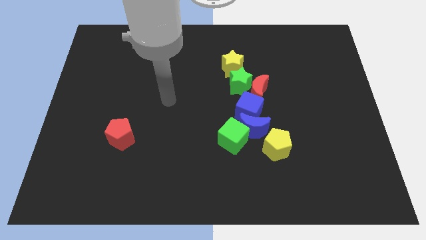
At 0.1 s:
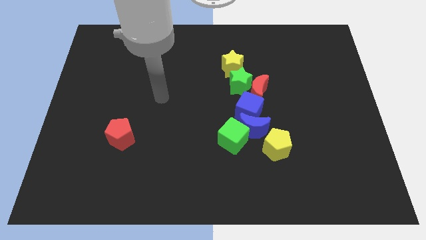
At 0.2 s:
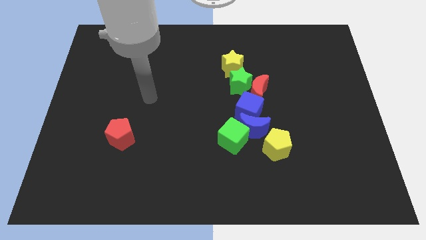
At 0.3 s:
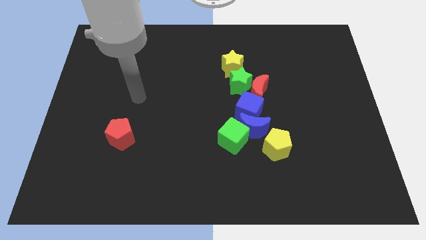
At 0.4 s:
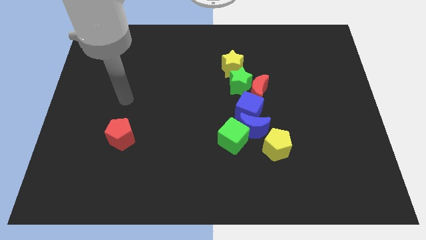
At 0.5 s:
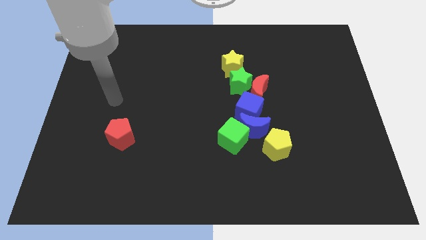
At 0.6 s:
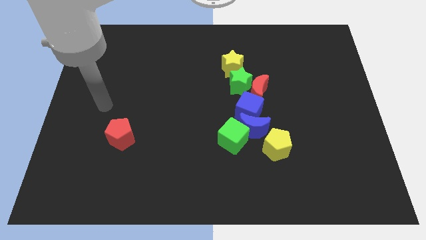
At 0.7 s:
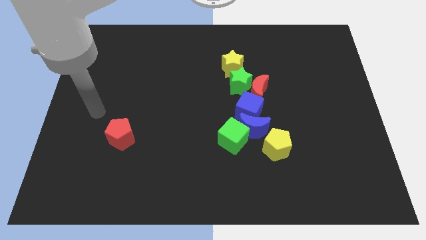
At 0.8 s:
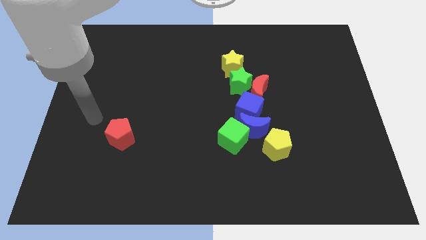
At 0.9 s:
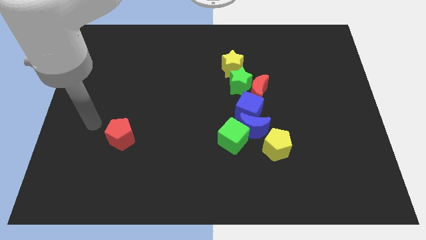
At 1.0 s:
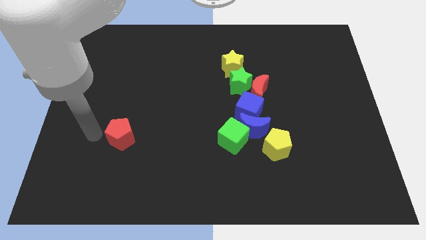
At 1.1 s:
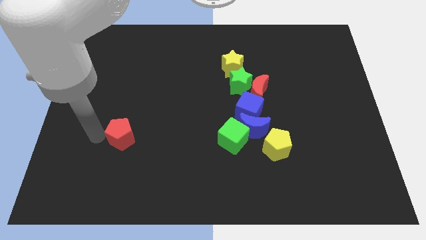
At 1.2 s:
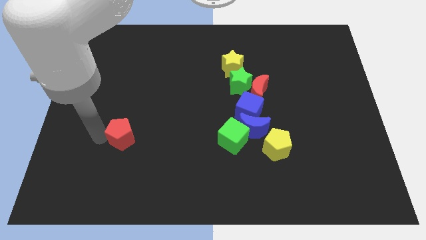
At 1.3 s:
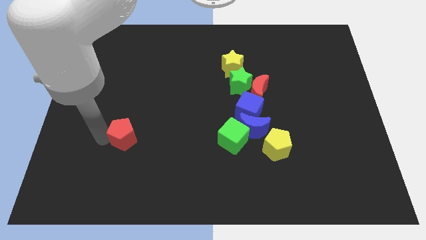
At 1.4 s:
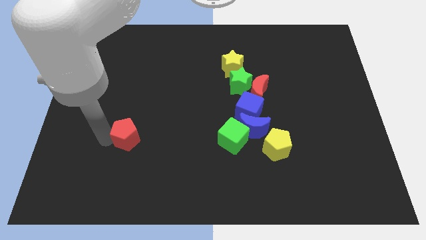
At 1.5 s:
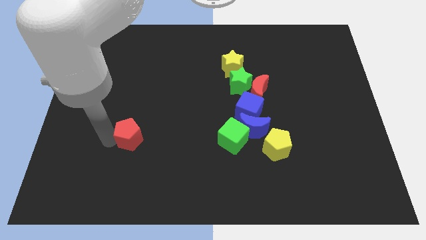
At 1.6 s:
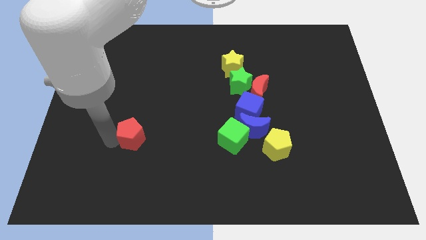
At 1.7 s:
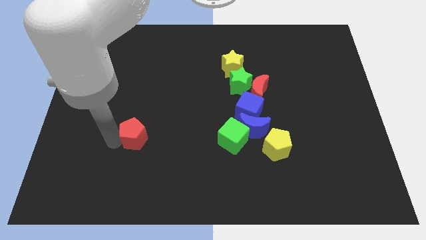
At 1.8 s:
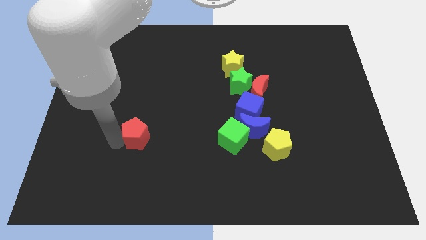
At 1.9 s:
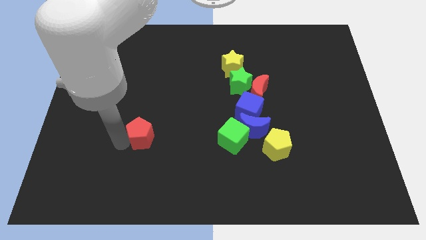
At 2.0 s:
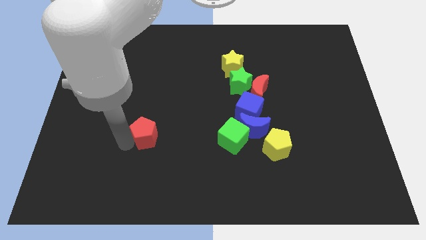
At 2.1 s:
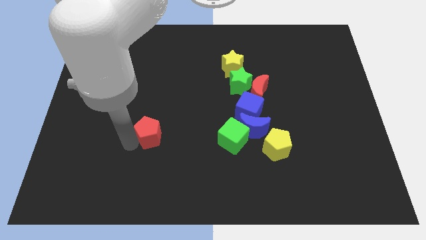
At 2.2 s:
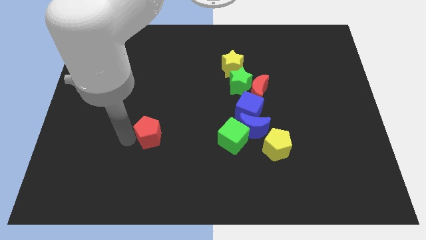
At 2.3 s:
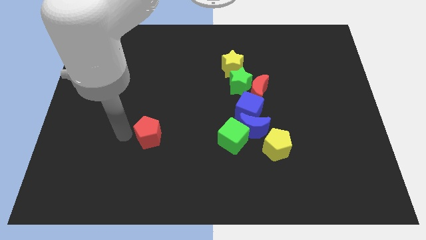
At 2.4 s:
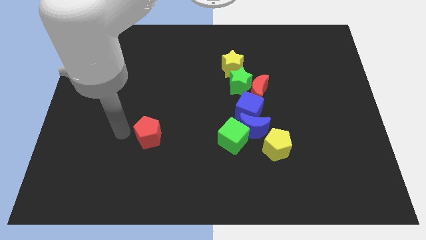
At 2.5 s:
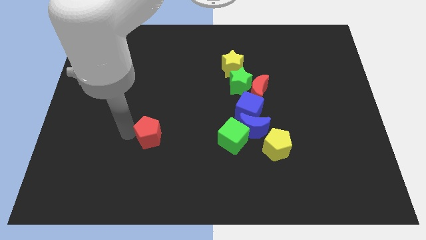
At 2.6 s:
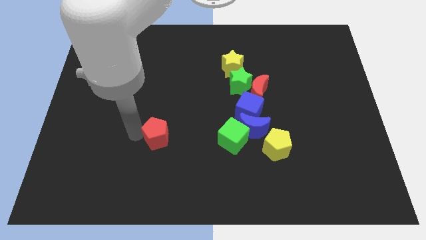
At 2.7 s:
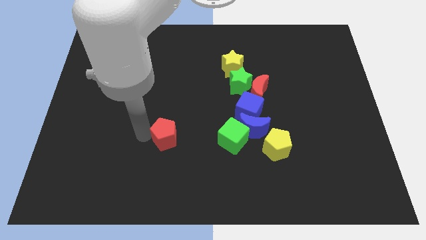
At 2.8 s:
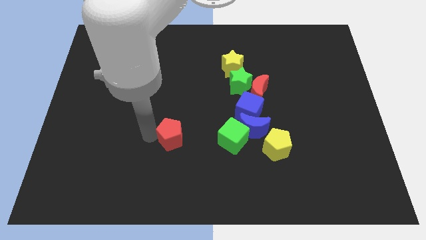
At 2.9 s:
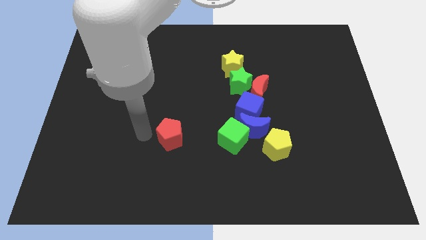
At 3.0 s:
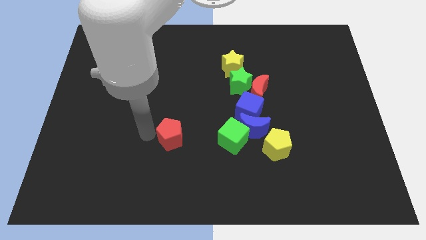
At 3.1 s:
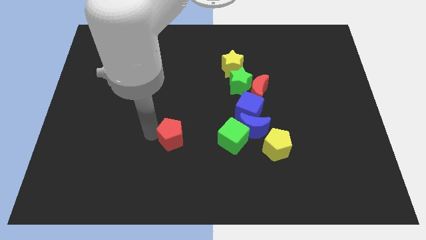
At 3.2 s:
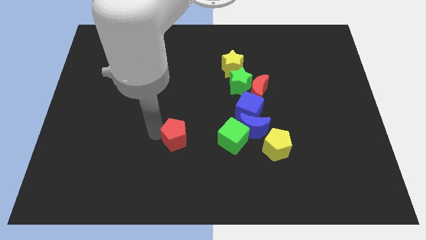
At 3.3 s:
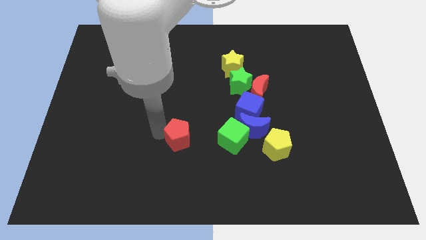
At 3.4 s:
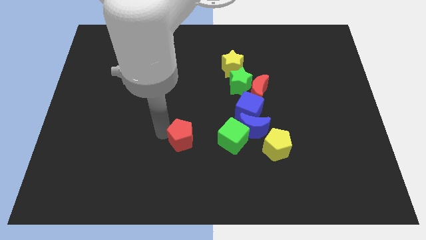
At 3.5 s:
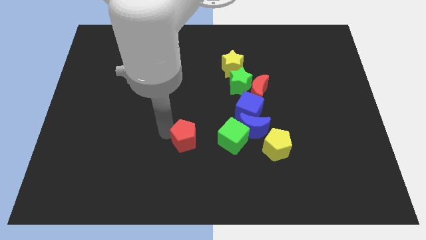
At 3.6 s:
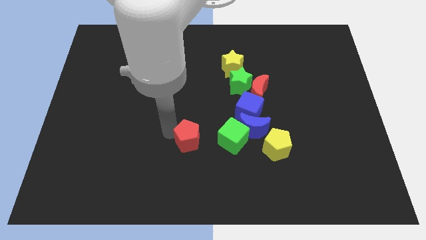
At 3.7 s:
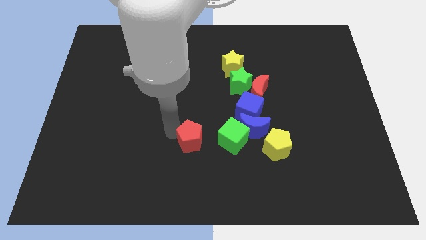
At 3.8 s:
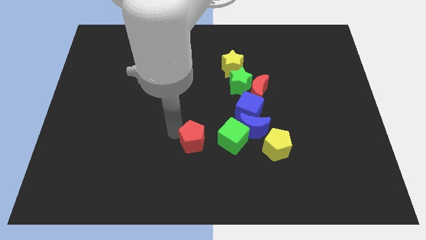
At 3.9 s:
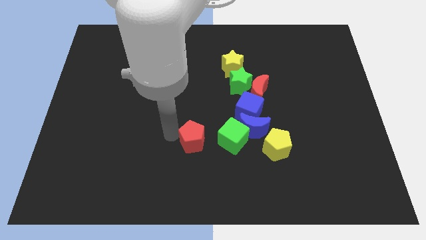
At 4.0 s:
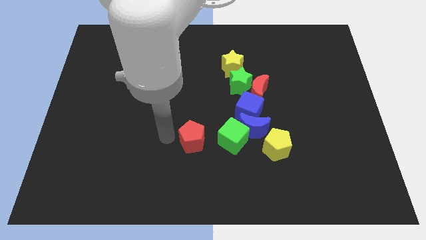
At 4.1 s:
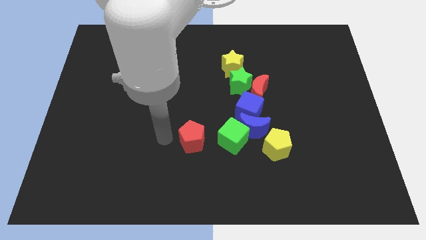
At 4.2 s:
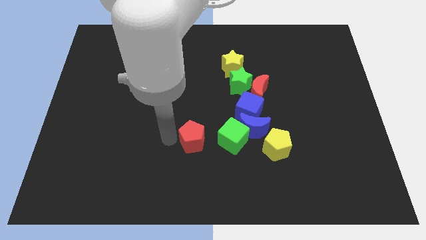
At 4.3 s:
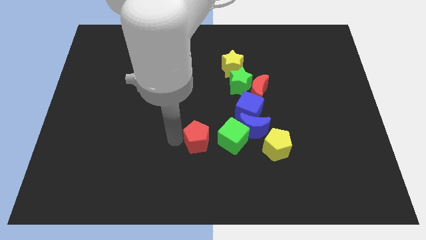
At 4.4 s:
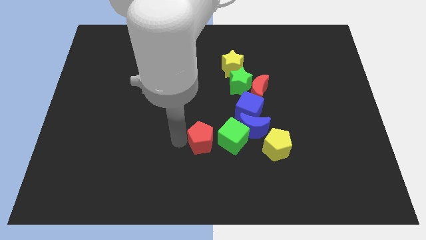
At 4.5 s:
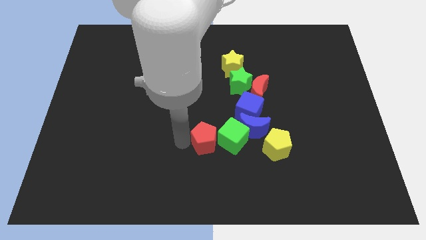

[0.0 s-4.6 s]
move the red pentagon close to the green cube

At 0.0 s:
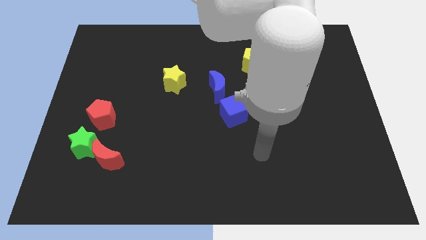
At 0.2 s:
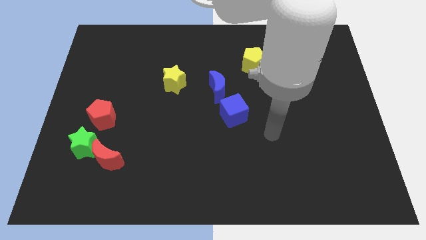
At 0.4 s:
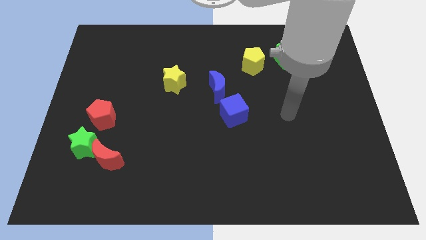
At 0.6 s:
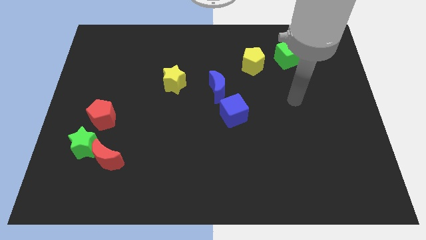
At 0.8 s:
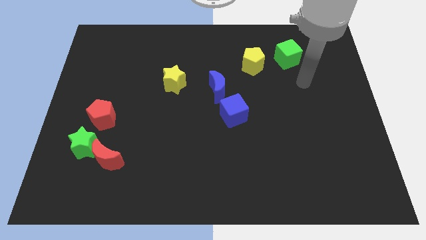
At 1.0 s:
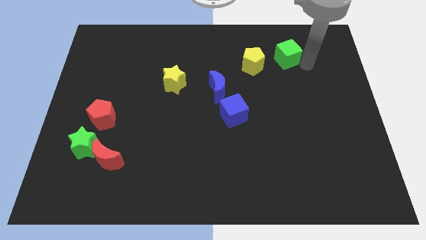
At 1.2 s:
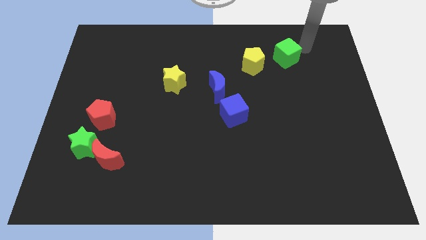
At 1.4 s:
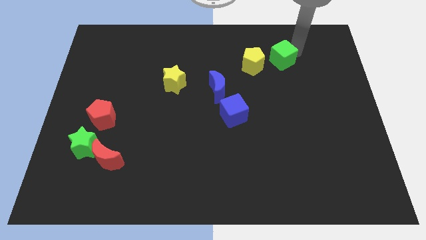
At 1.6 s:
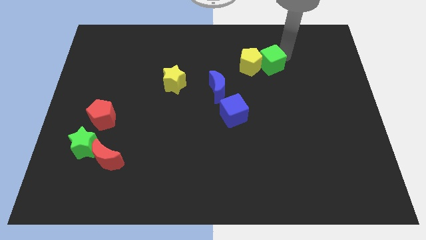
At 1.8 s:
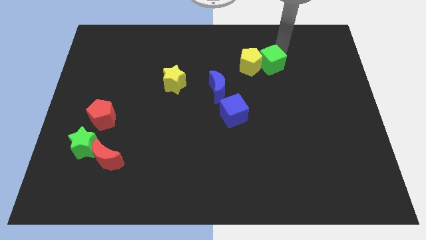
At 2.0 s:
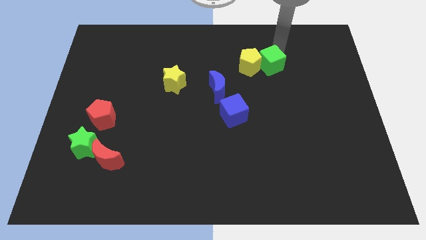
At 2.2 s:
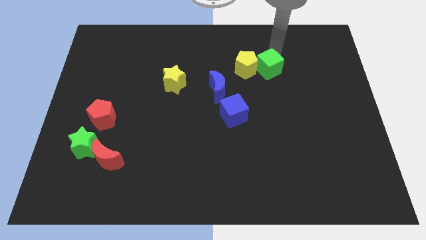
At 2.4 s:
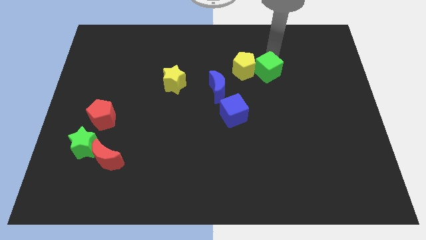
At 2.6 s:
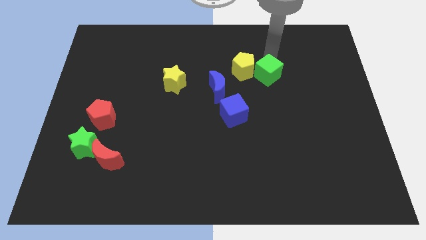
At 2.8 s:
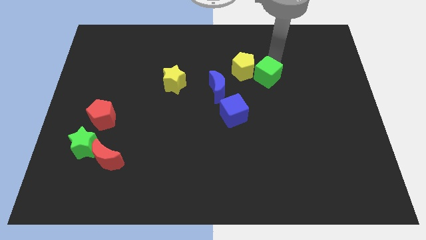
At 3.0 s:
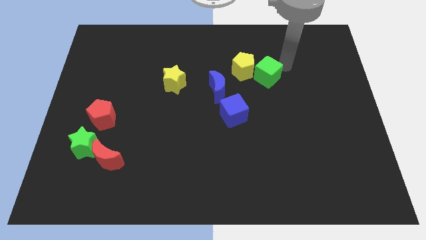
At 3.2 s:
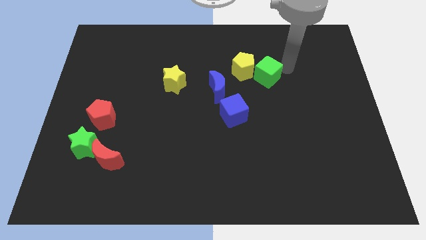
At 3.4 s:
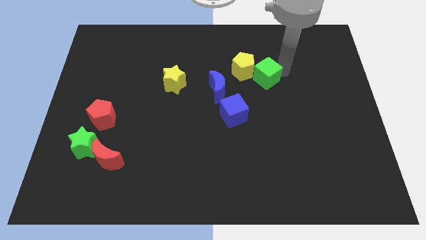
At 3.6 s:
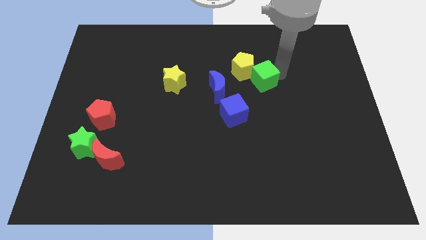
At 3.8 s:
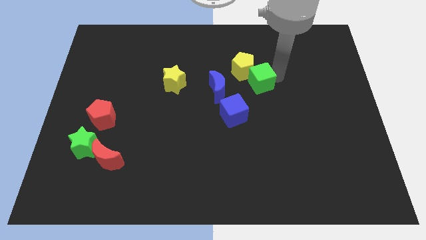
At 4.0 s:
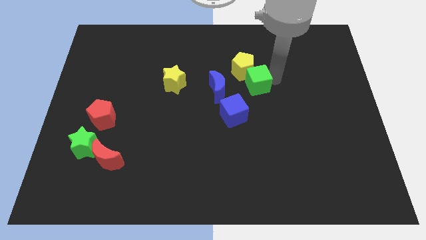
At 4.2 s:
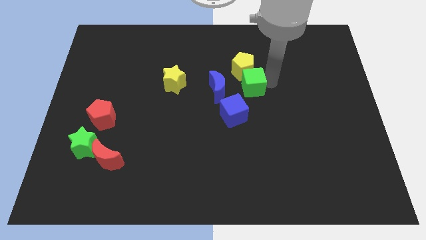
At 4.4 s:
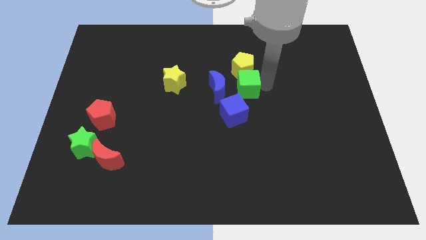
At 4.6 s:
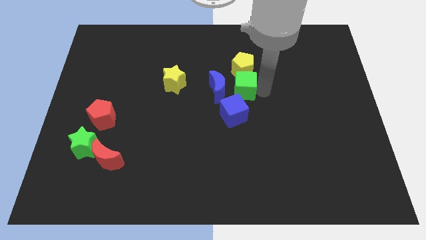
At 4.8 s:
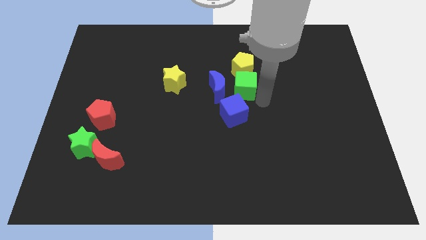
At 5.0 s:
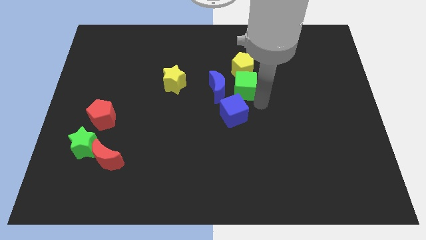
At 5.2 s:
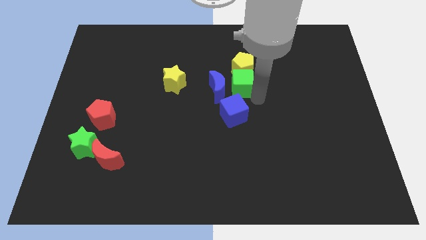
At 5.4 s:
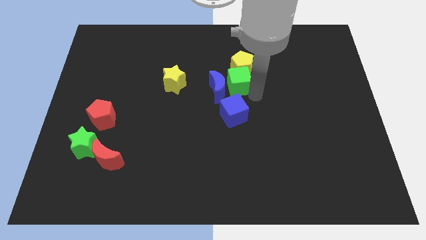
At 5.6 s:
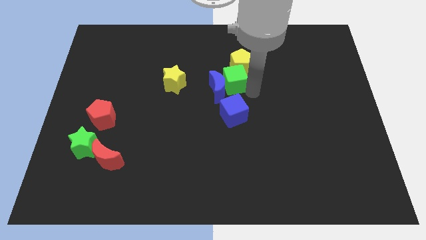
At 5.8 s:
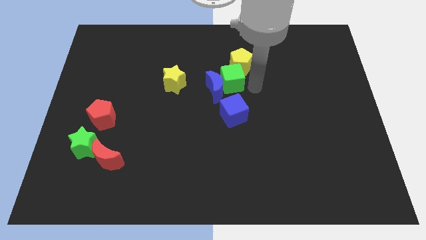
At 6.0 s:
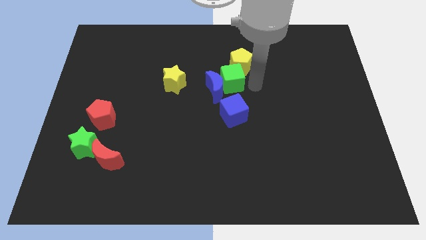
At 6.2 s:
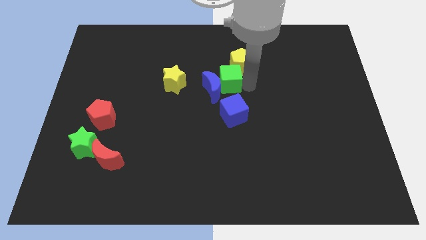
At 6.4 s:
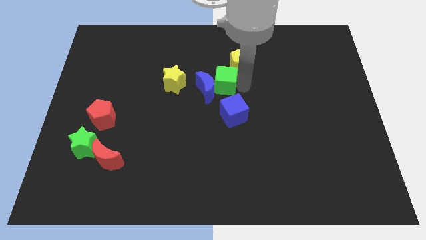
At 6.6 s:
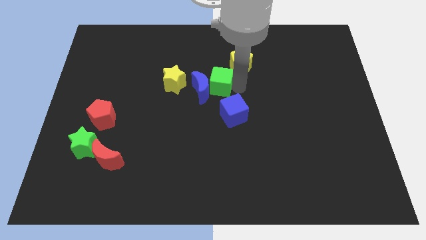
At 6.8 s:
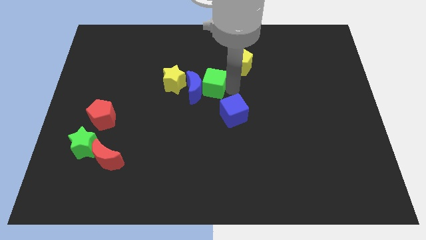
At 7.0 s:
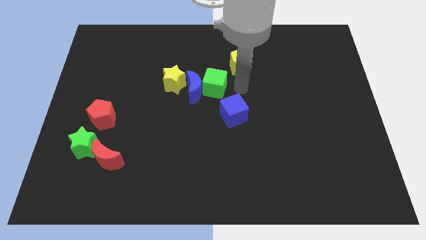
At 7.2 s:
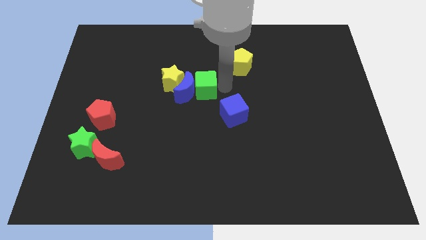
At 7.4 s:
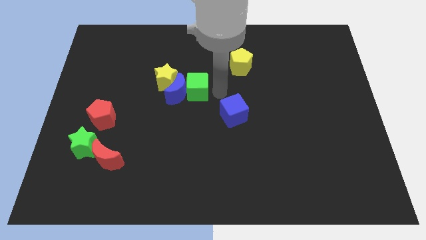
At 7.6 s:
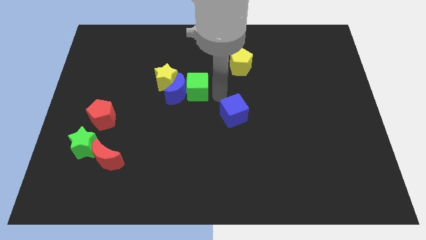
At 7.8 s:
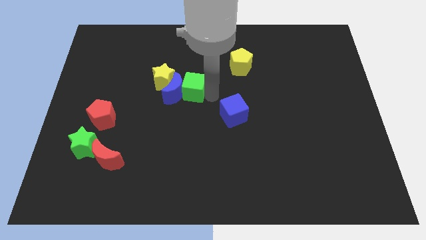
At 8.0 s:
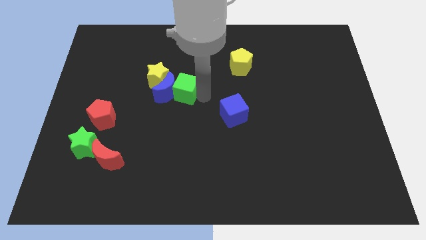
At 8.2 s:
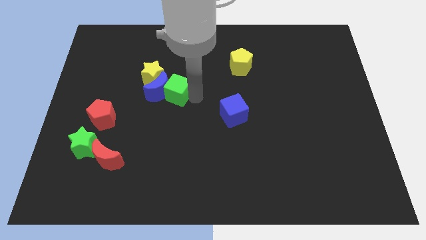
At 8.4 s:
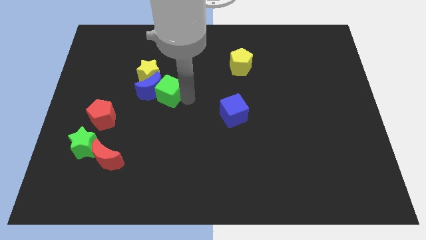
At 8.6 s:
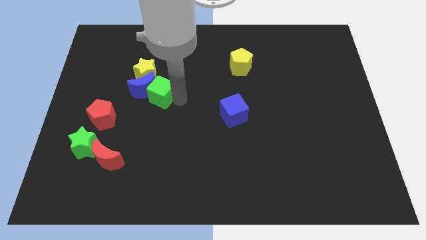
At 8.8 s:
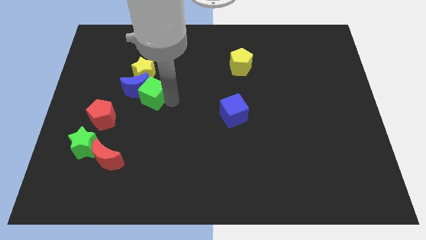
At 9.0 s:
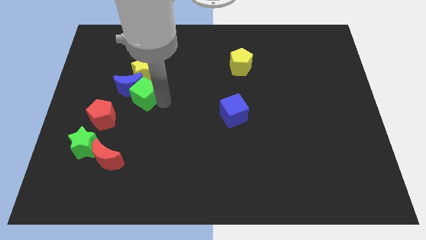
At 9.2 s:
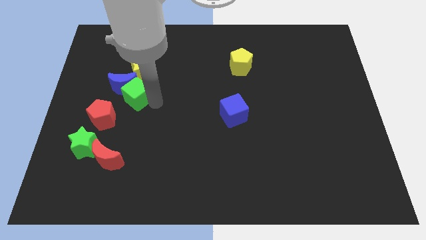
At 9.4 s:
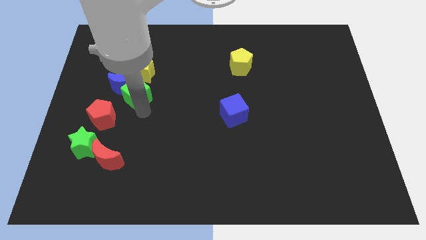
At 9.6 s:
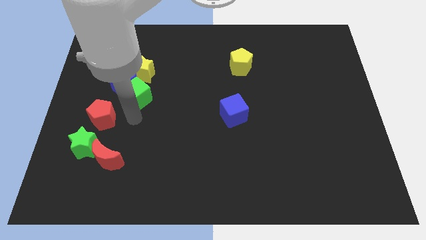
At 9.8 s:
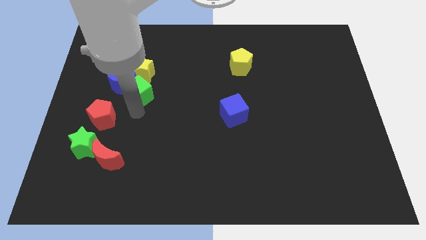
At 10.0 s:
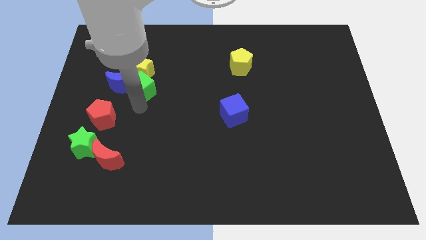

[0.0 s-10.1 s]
put the green cube to the yellow star
